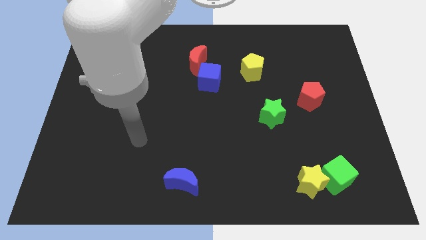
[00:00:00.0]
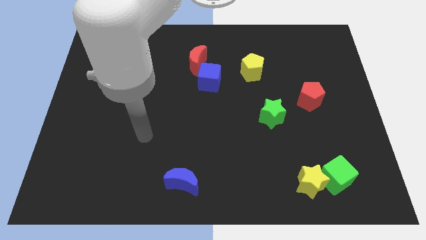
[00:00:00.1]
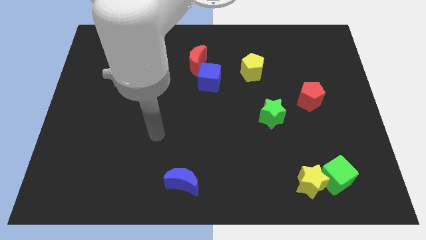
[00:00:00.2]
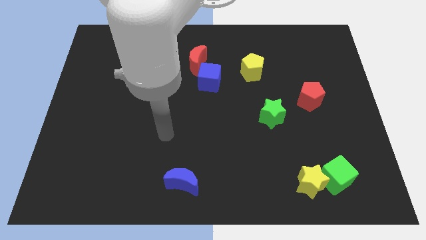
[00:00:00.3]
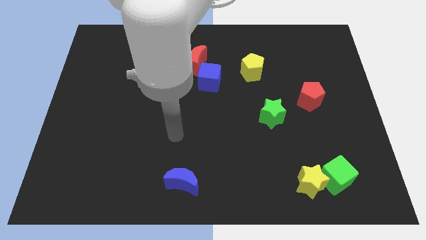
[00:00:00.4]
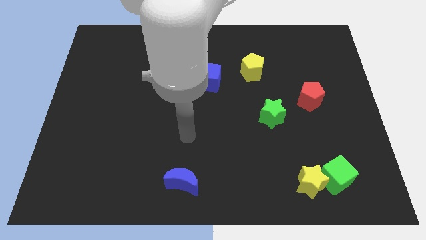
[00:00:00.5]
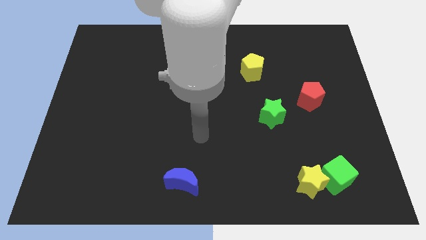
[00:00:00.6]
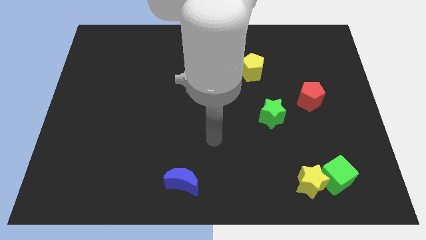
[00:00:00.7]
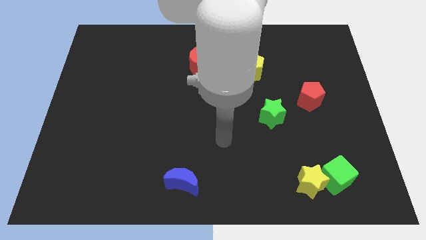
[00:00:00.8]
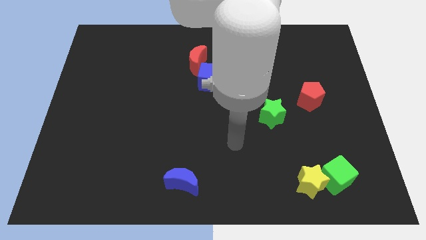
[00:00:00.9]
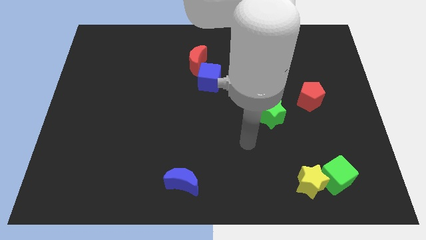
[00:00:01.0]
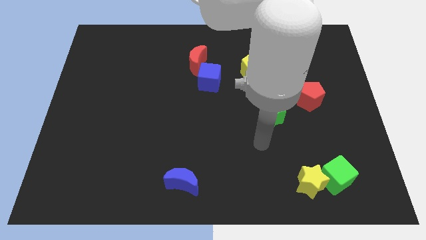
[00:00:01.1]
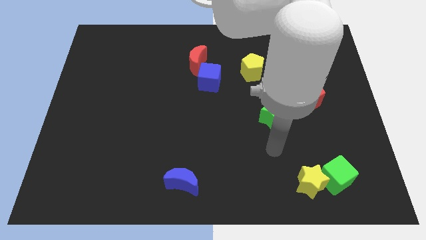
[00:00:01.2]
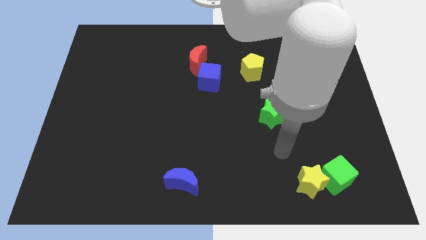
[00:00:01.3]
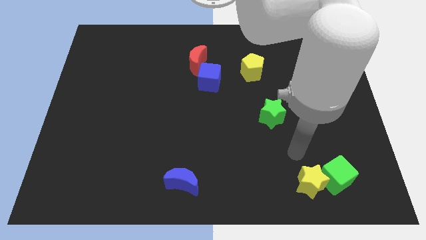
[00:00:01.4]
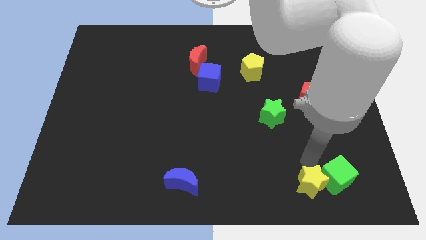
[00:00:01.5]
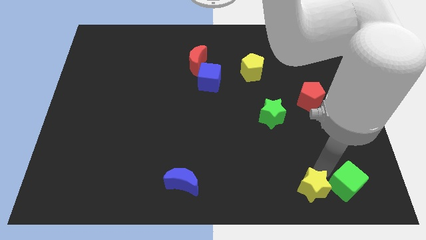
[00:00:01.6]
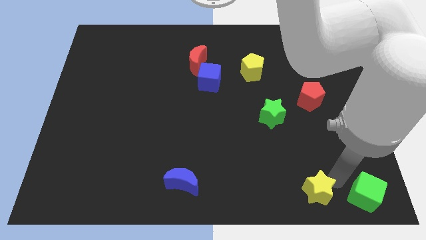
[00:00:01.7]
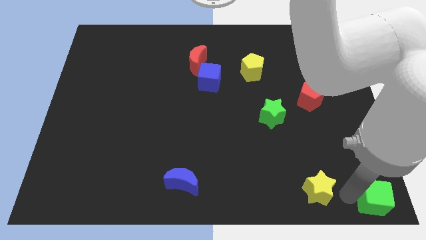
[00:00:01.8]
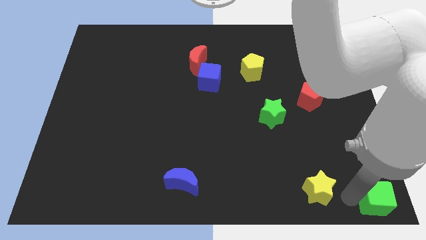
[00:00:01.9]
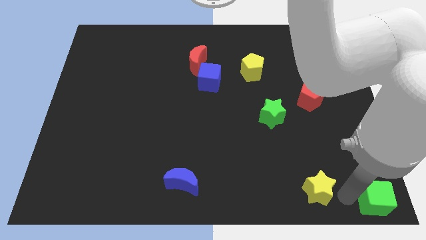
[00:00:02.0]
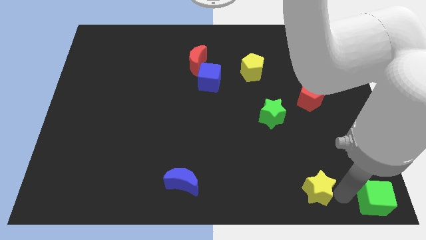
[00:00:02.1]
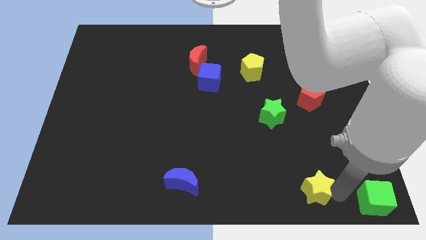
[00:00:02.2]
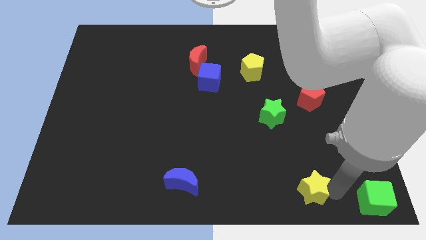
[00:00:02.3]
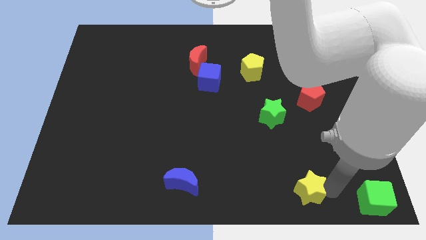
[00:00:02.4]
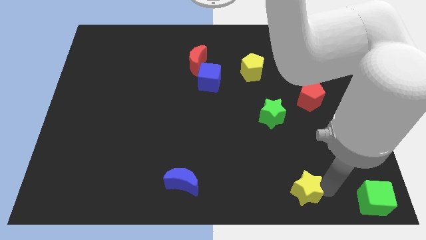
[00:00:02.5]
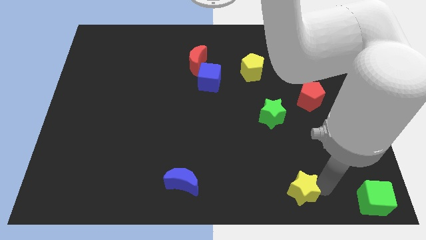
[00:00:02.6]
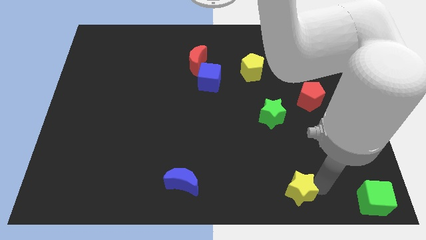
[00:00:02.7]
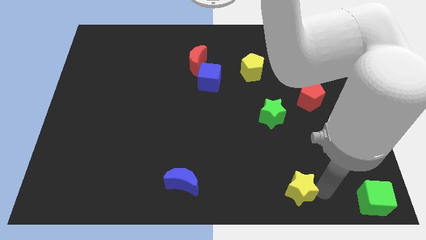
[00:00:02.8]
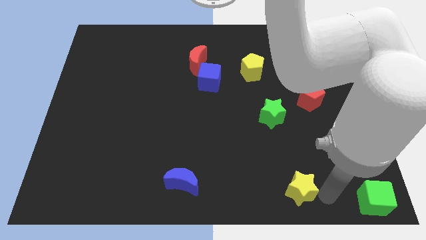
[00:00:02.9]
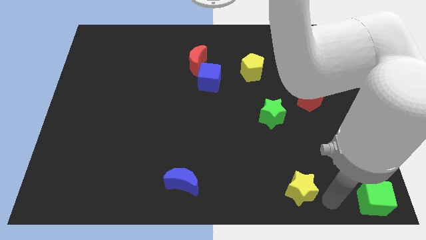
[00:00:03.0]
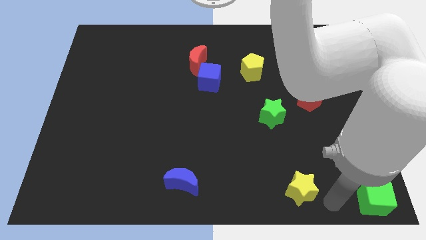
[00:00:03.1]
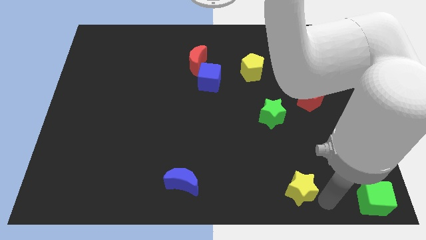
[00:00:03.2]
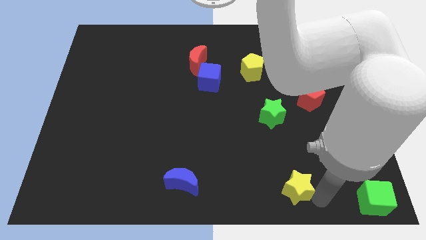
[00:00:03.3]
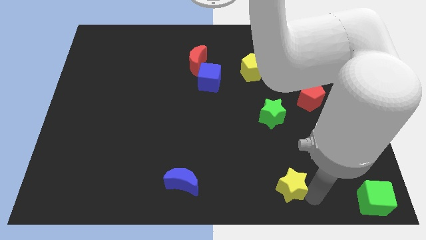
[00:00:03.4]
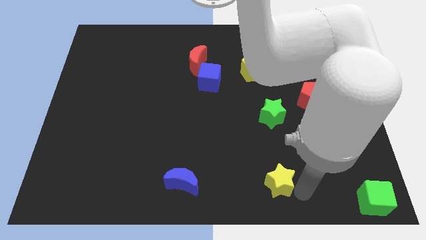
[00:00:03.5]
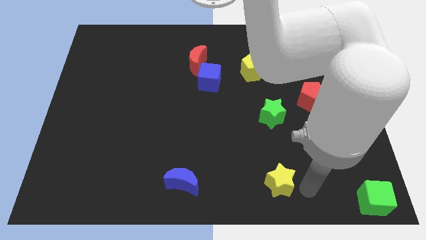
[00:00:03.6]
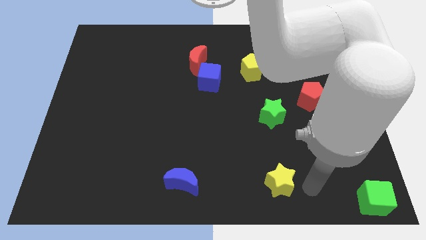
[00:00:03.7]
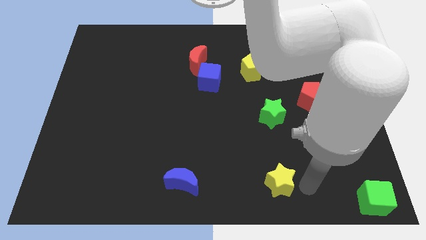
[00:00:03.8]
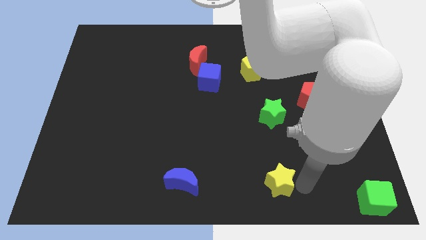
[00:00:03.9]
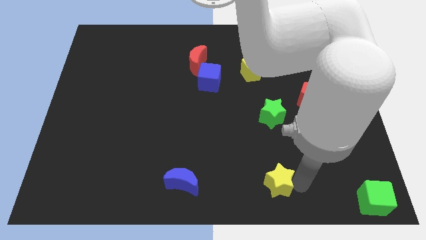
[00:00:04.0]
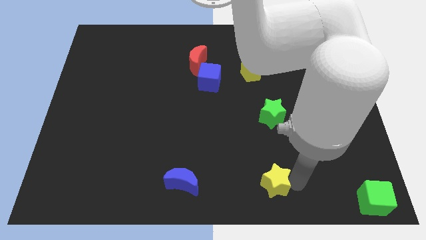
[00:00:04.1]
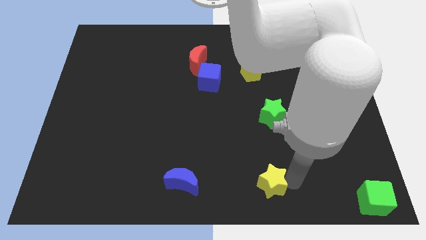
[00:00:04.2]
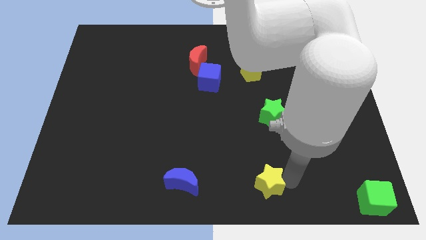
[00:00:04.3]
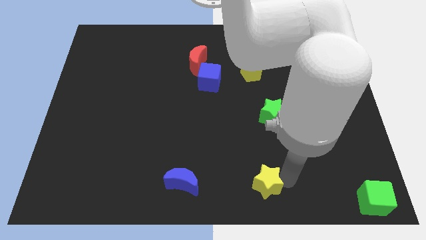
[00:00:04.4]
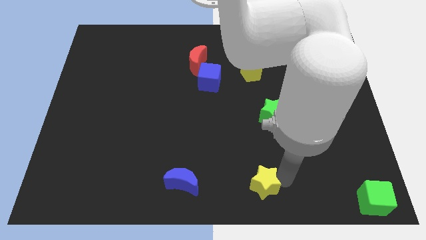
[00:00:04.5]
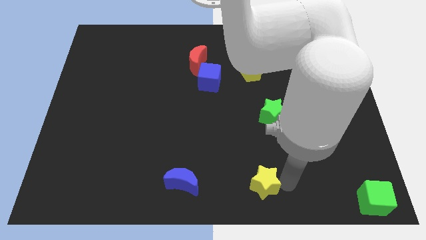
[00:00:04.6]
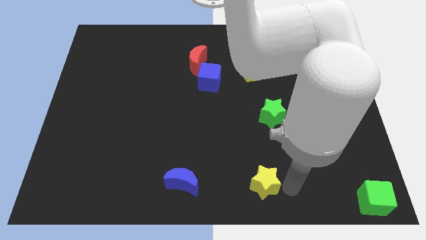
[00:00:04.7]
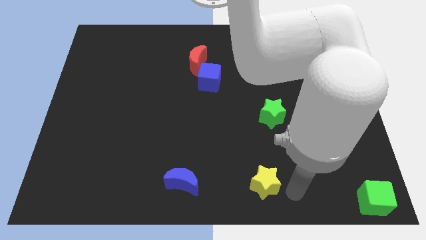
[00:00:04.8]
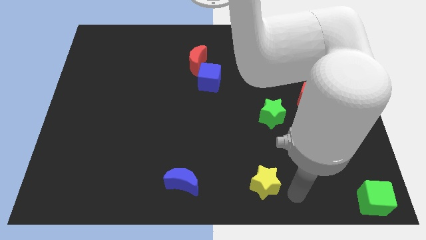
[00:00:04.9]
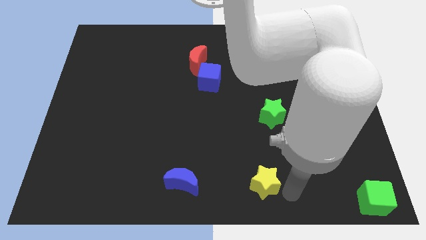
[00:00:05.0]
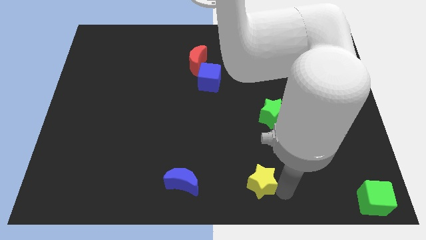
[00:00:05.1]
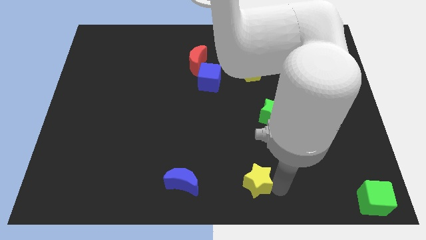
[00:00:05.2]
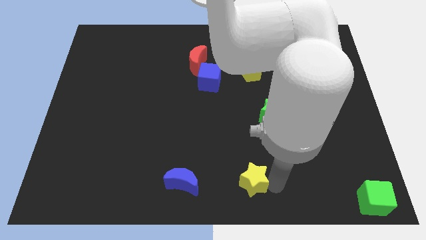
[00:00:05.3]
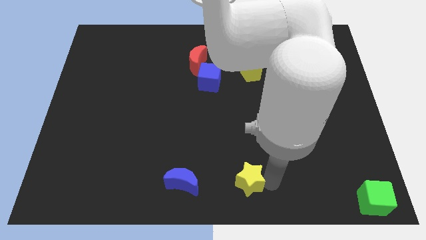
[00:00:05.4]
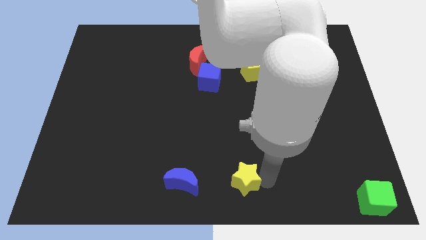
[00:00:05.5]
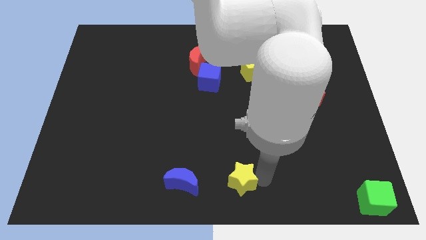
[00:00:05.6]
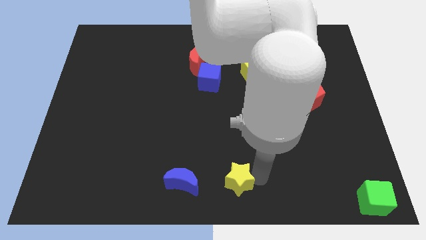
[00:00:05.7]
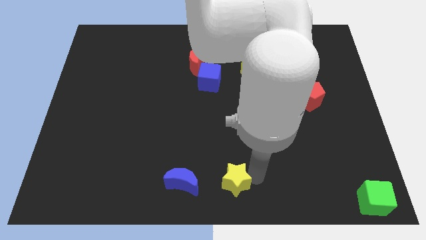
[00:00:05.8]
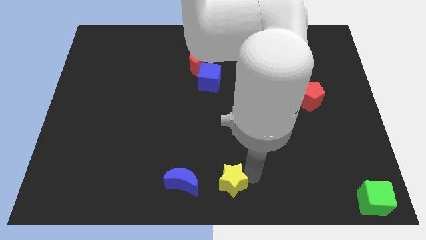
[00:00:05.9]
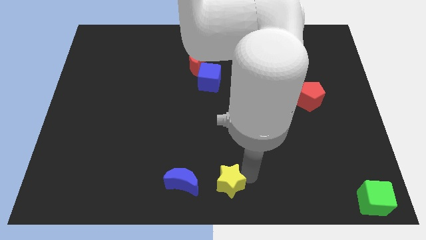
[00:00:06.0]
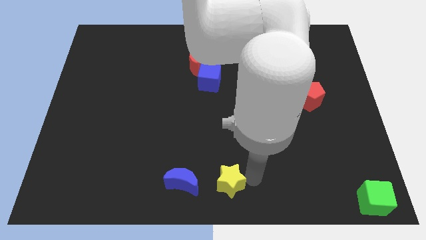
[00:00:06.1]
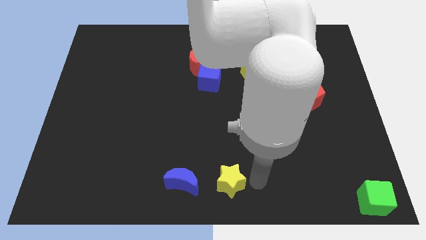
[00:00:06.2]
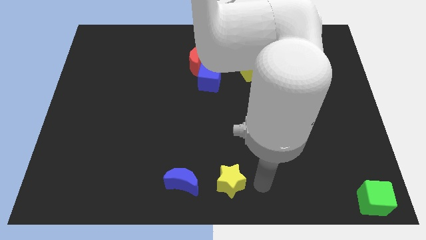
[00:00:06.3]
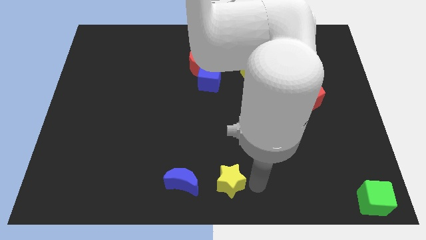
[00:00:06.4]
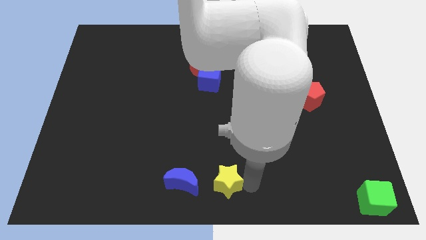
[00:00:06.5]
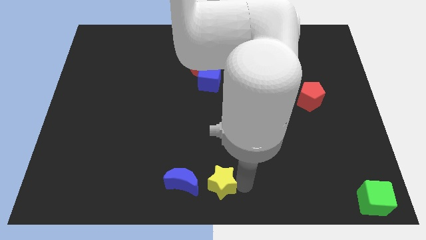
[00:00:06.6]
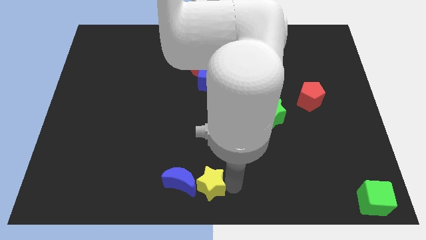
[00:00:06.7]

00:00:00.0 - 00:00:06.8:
move the yellow star close to the blue moon
